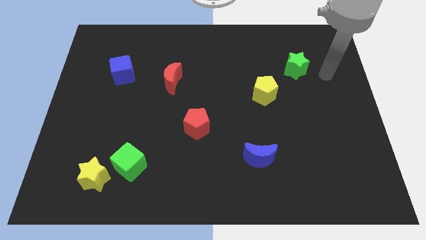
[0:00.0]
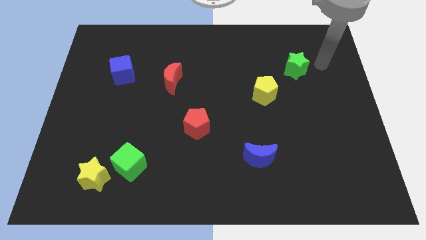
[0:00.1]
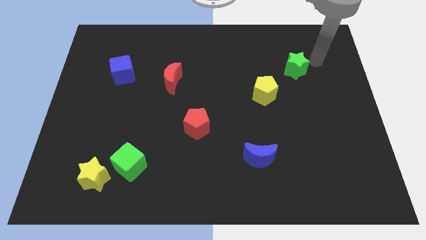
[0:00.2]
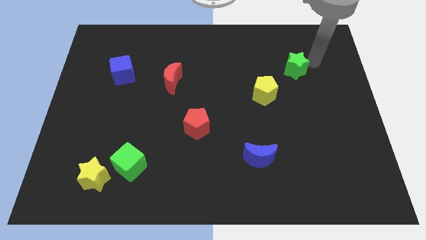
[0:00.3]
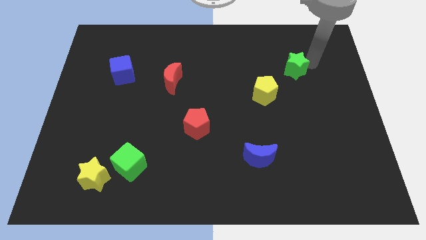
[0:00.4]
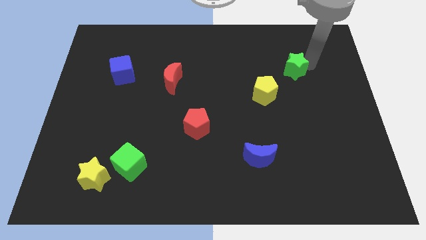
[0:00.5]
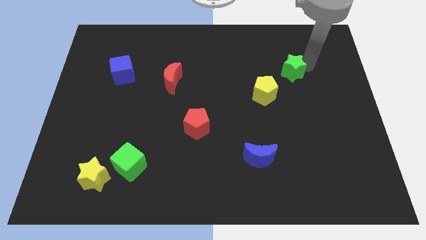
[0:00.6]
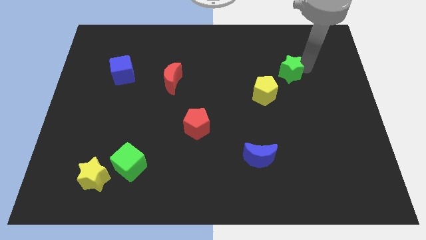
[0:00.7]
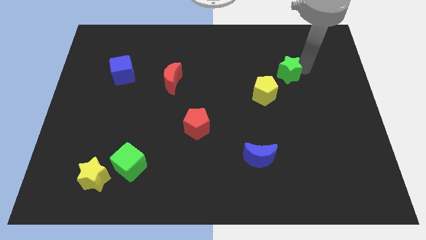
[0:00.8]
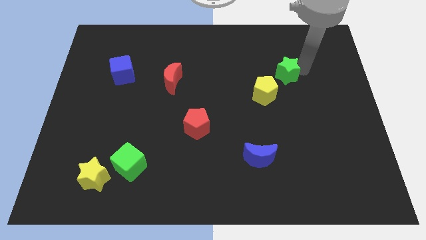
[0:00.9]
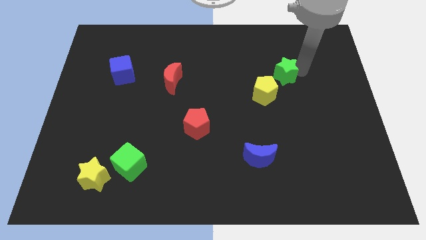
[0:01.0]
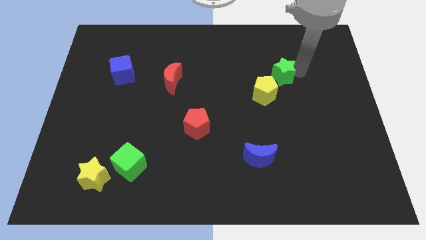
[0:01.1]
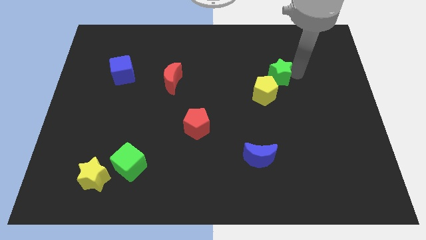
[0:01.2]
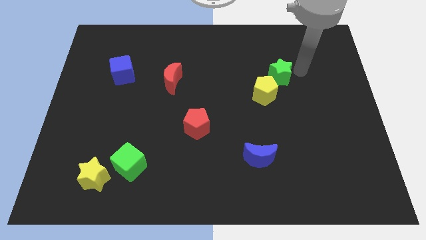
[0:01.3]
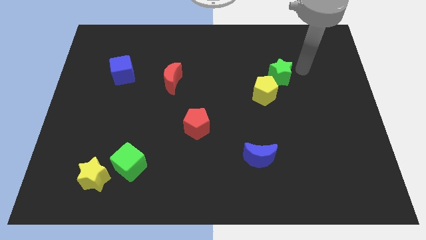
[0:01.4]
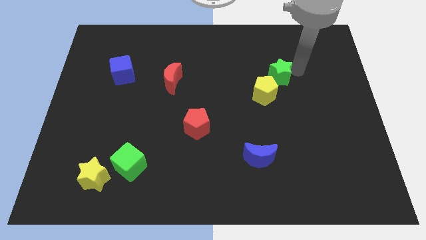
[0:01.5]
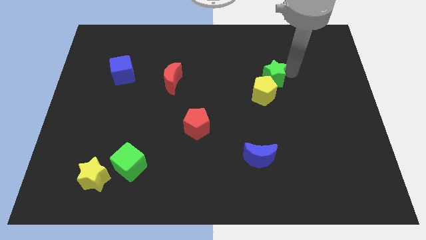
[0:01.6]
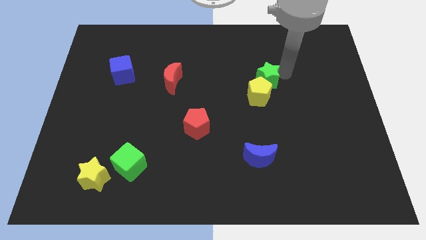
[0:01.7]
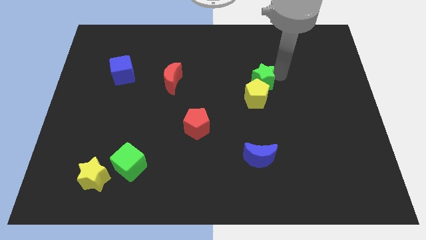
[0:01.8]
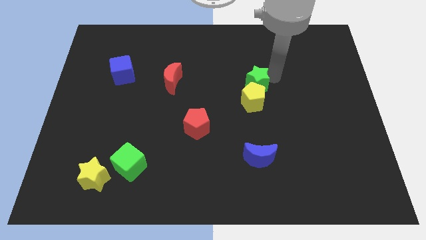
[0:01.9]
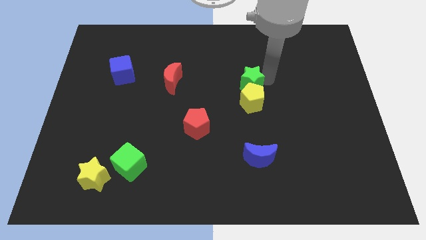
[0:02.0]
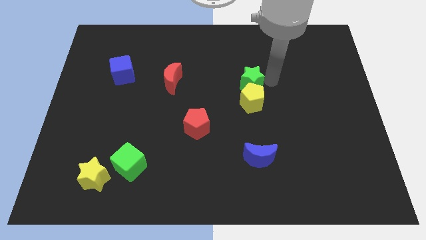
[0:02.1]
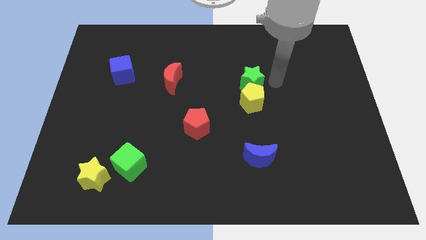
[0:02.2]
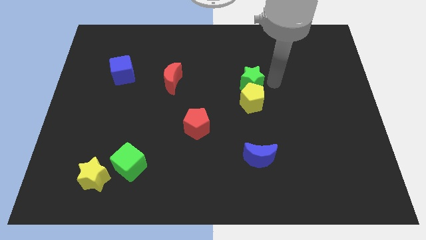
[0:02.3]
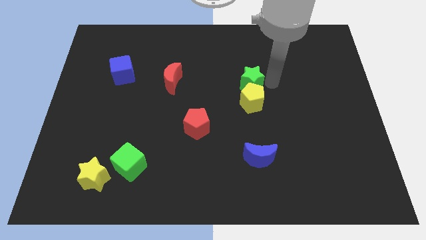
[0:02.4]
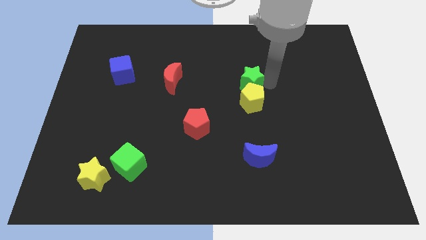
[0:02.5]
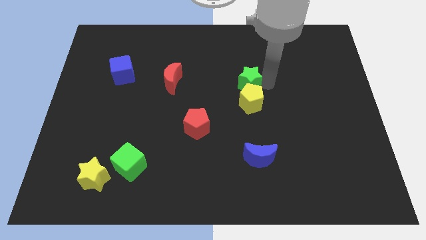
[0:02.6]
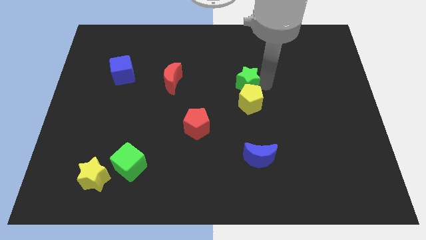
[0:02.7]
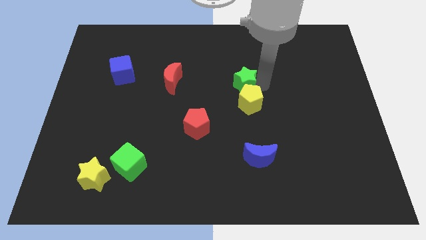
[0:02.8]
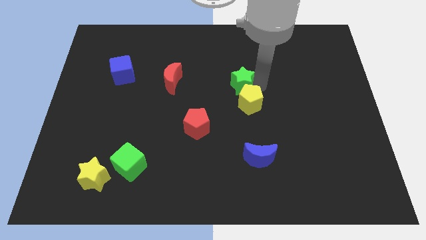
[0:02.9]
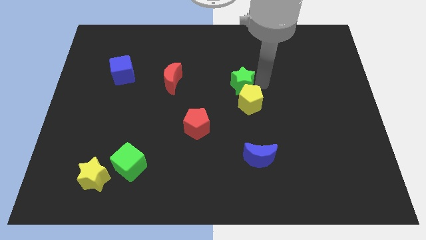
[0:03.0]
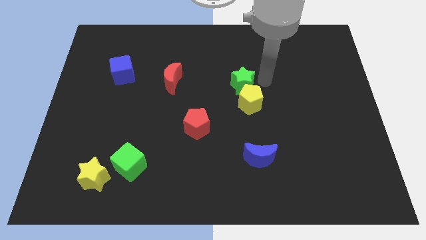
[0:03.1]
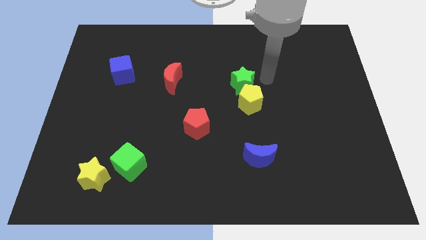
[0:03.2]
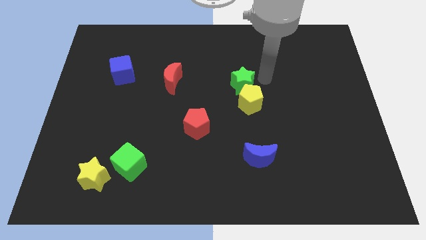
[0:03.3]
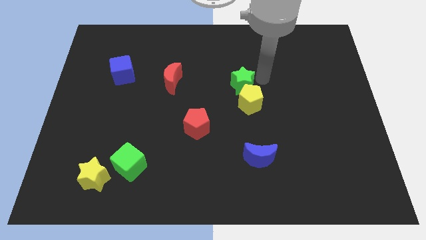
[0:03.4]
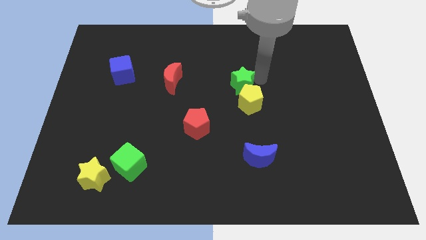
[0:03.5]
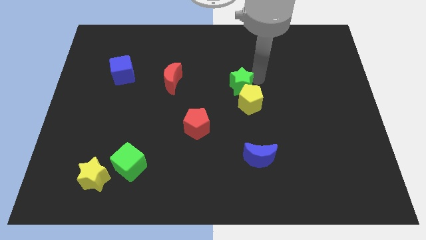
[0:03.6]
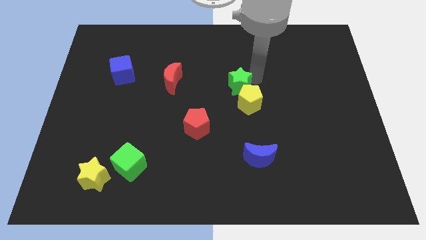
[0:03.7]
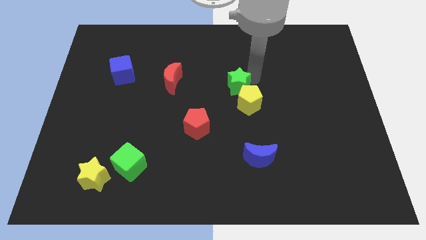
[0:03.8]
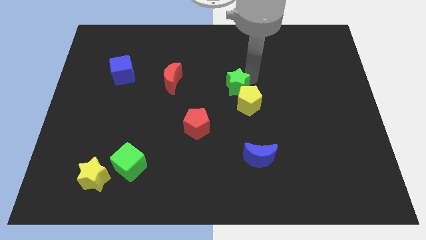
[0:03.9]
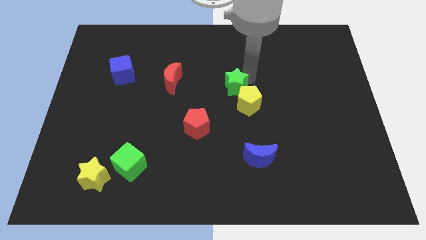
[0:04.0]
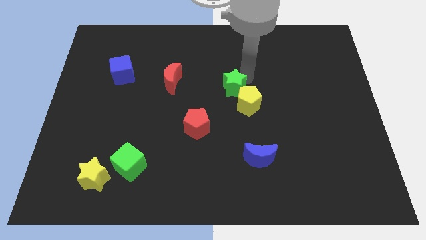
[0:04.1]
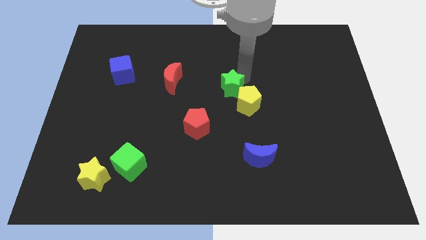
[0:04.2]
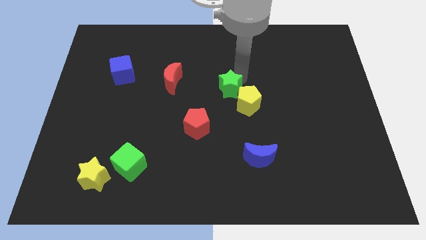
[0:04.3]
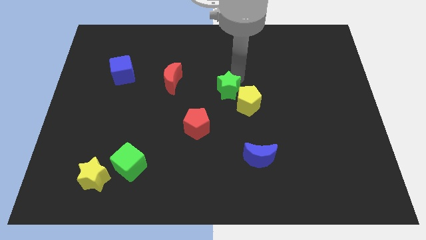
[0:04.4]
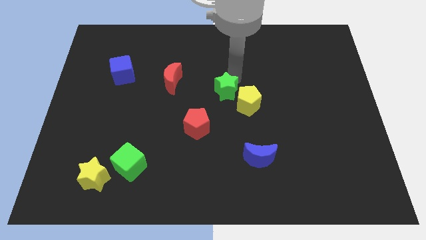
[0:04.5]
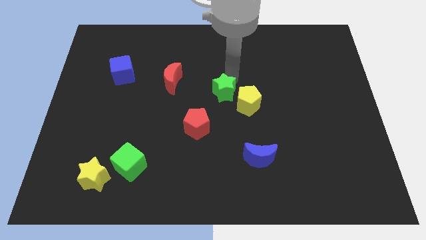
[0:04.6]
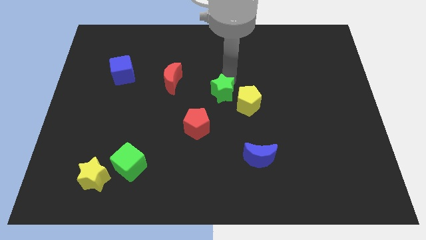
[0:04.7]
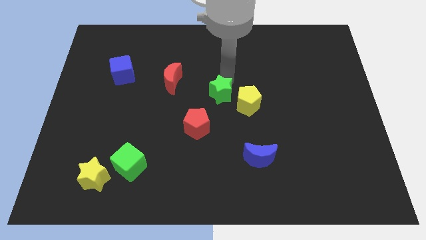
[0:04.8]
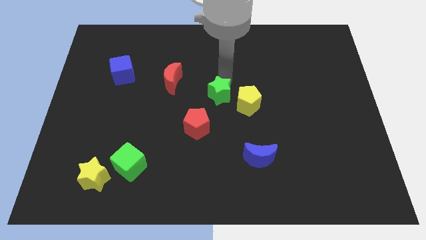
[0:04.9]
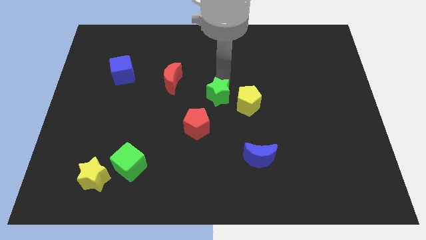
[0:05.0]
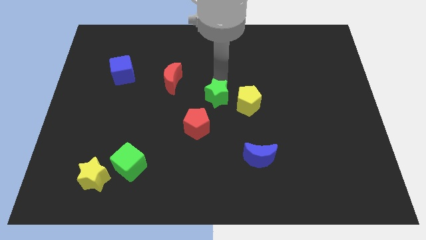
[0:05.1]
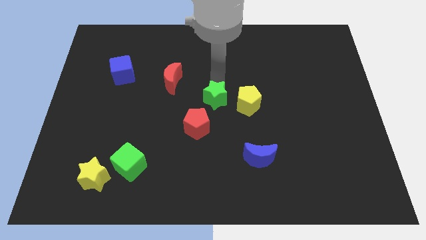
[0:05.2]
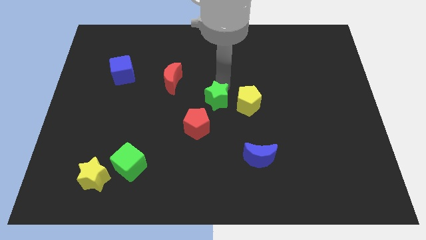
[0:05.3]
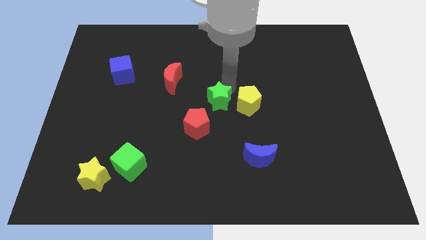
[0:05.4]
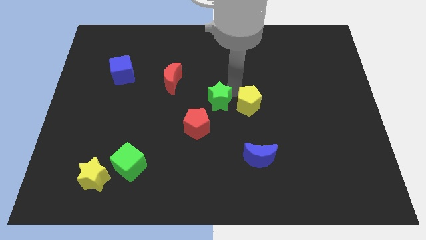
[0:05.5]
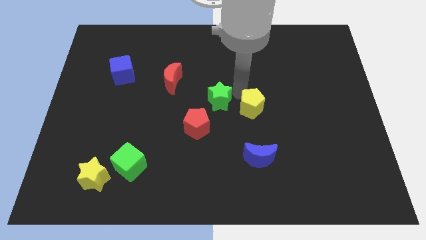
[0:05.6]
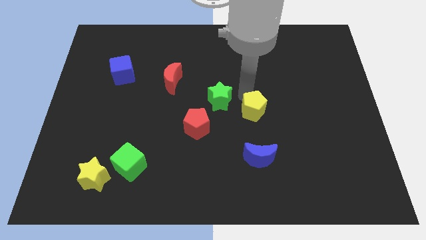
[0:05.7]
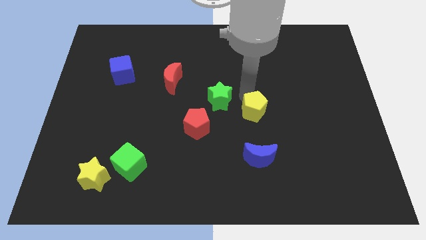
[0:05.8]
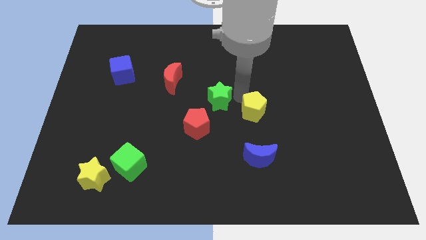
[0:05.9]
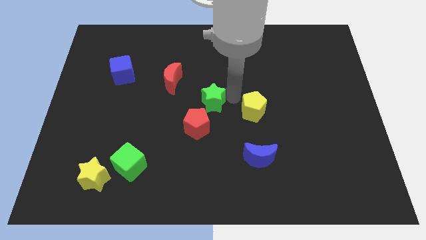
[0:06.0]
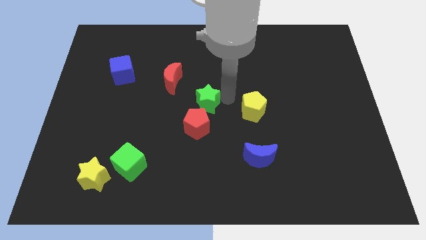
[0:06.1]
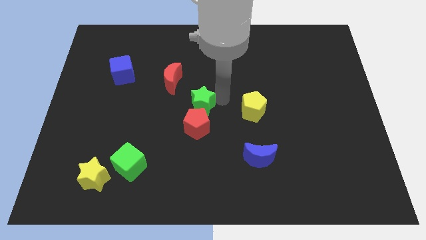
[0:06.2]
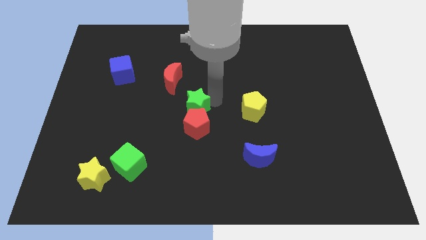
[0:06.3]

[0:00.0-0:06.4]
push the green star to the top left side of the red pentagon

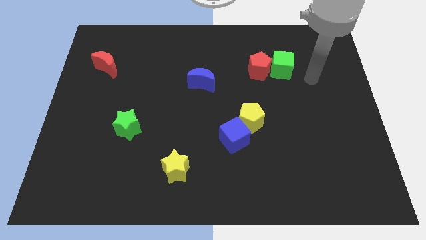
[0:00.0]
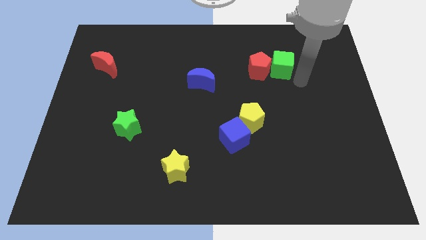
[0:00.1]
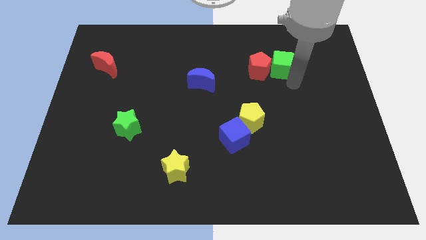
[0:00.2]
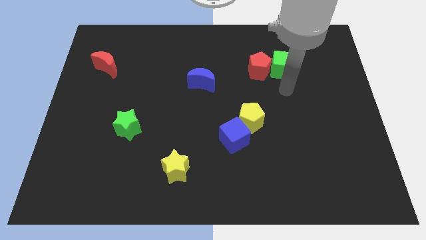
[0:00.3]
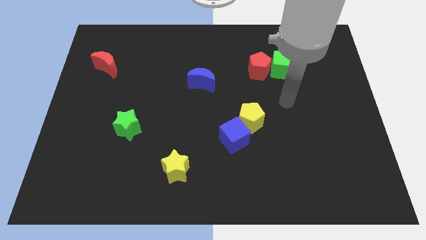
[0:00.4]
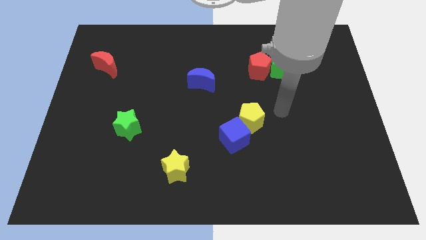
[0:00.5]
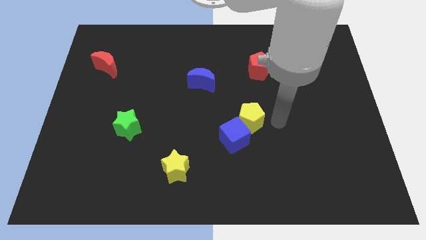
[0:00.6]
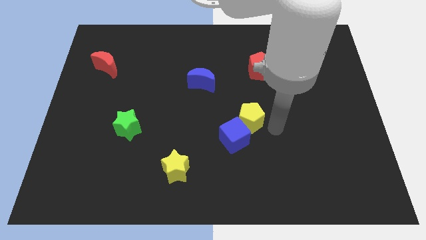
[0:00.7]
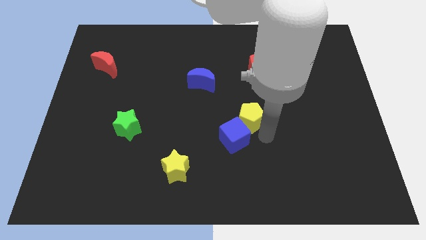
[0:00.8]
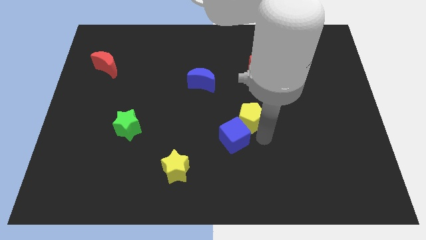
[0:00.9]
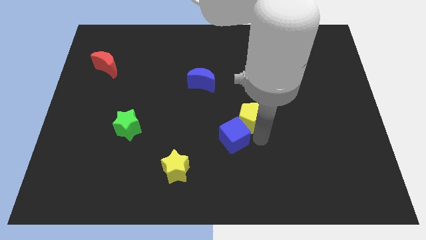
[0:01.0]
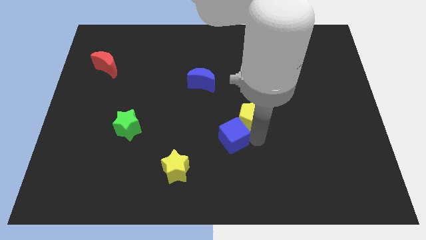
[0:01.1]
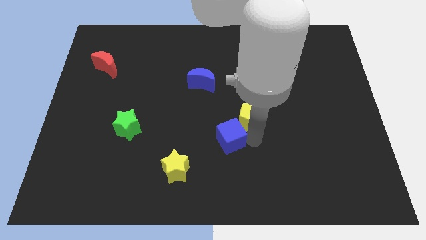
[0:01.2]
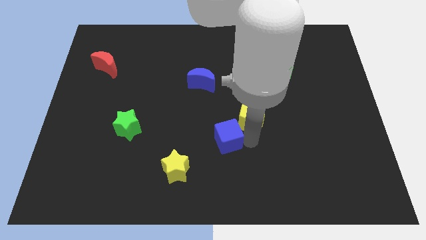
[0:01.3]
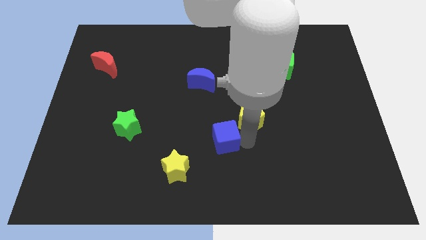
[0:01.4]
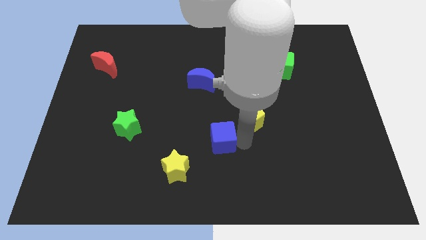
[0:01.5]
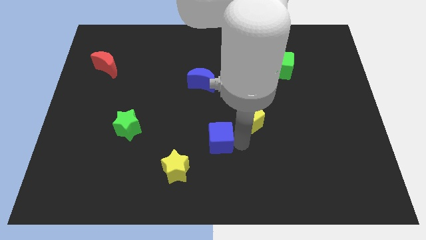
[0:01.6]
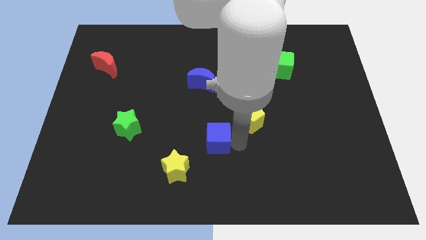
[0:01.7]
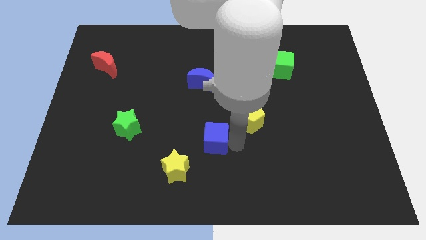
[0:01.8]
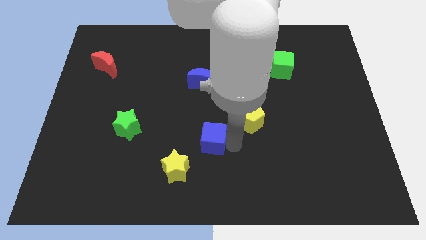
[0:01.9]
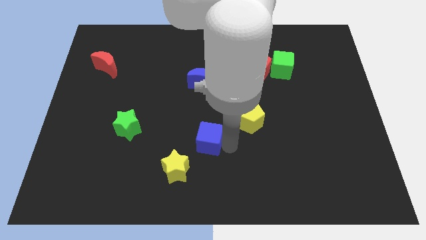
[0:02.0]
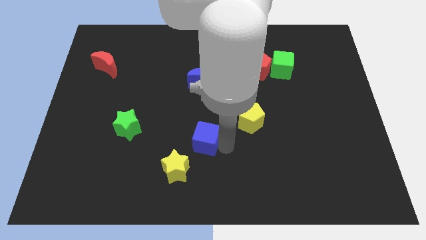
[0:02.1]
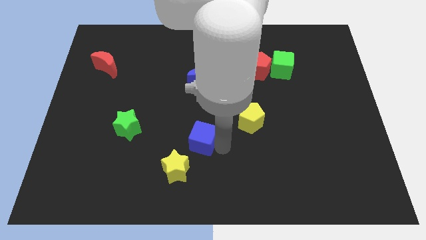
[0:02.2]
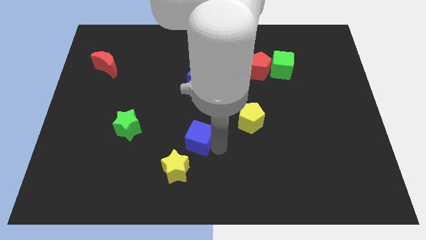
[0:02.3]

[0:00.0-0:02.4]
put the blue cube to the top side of the yellow star
